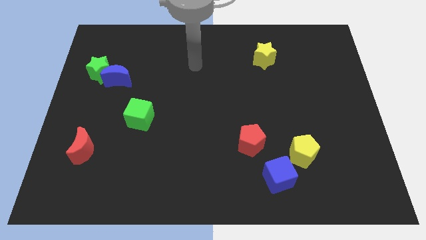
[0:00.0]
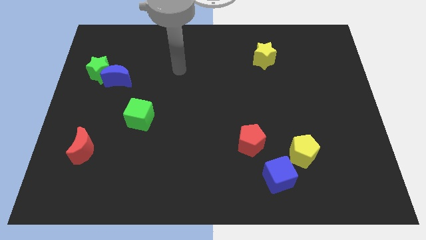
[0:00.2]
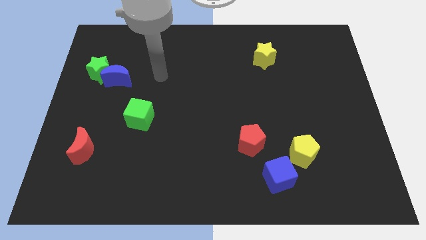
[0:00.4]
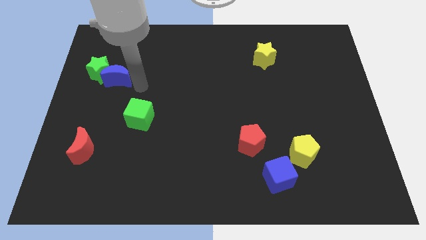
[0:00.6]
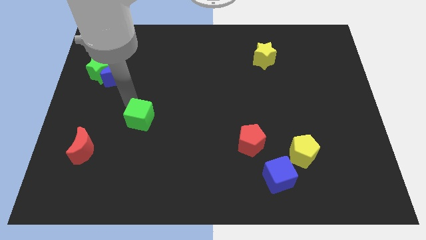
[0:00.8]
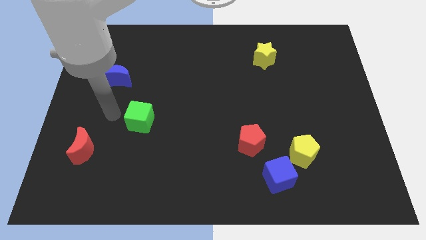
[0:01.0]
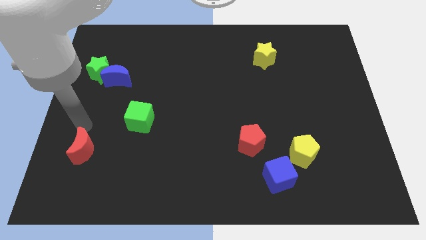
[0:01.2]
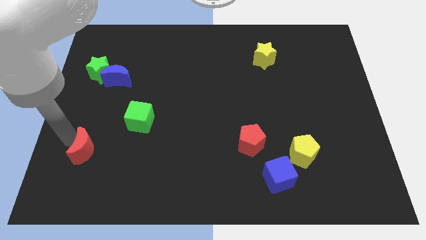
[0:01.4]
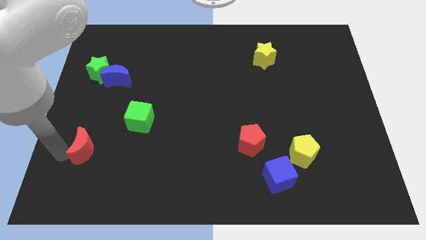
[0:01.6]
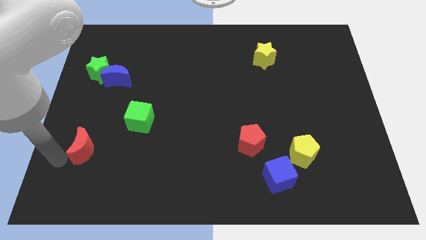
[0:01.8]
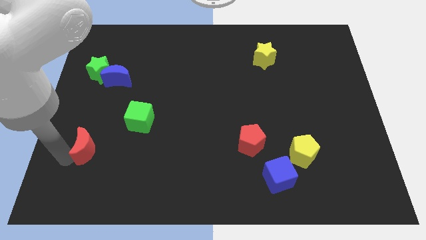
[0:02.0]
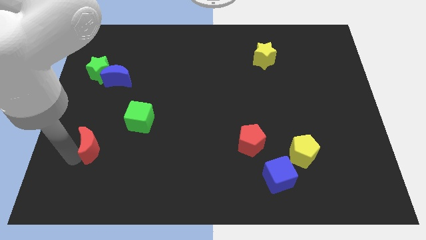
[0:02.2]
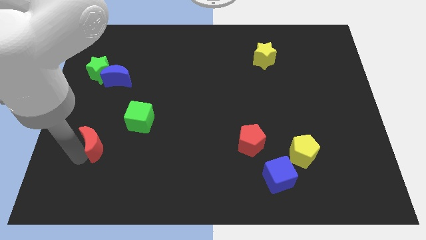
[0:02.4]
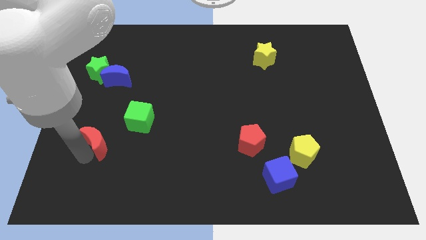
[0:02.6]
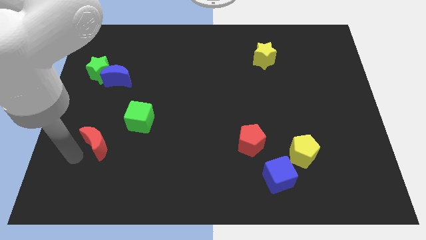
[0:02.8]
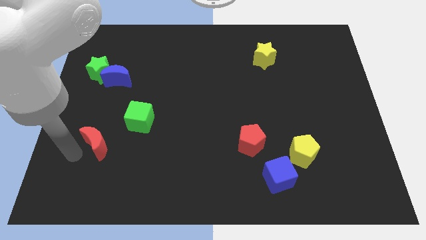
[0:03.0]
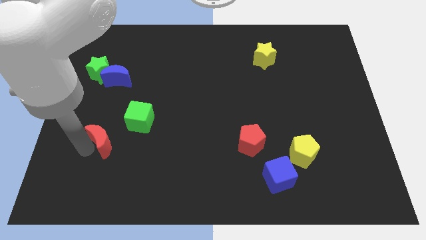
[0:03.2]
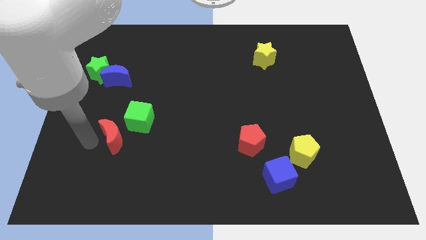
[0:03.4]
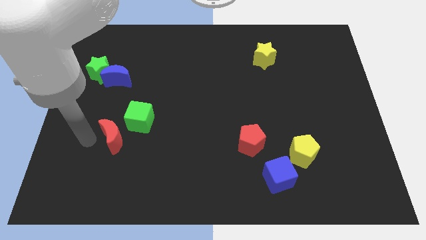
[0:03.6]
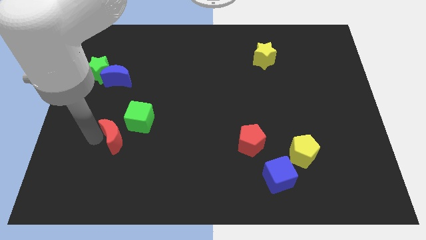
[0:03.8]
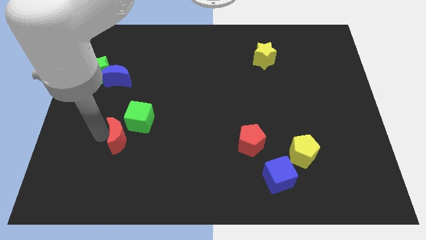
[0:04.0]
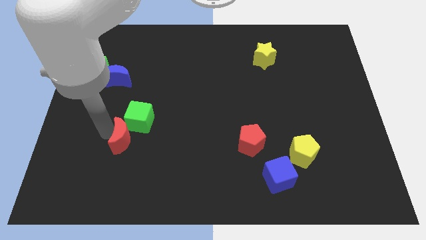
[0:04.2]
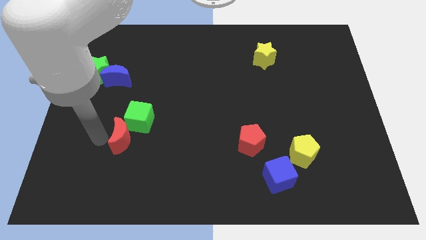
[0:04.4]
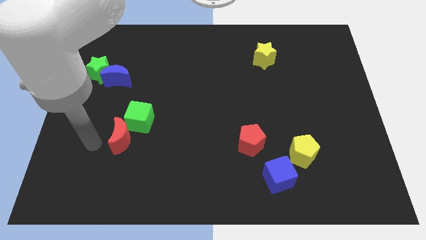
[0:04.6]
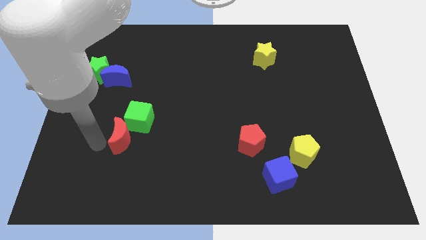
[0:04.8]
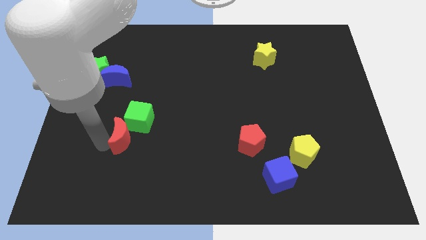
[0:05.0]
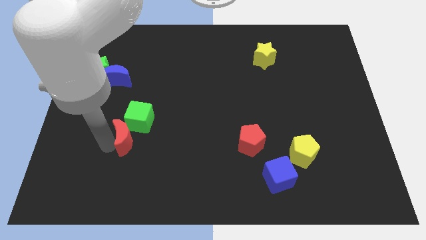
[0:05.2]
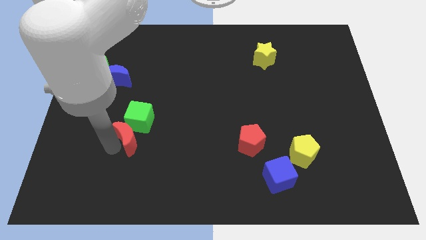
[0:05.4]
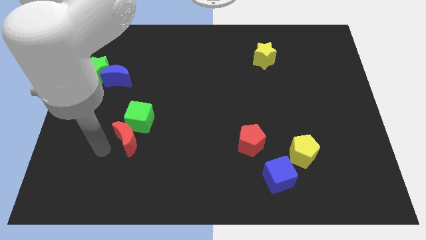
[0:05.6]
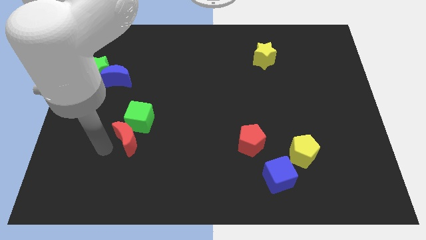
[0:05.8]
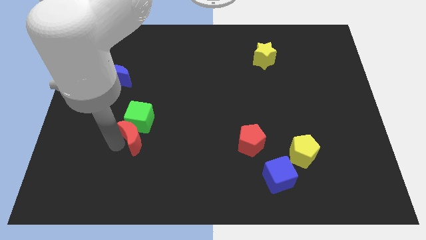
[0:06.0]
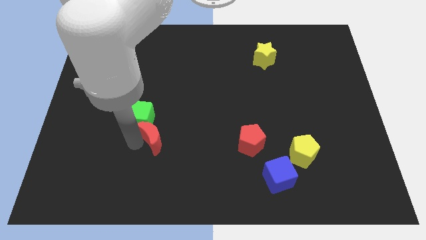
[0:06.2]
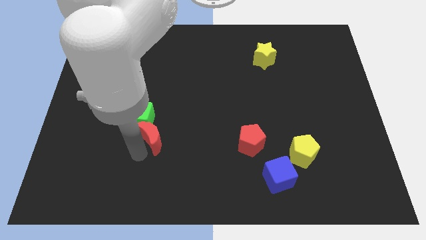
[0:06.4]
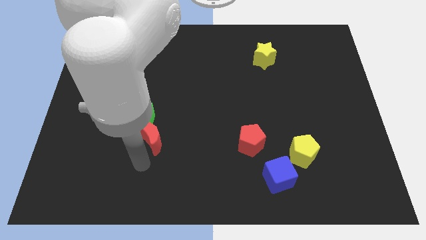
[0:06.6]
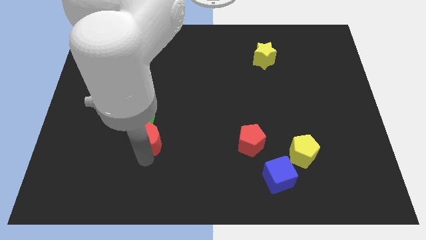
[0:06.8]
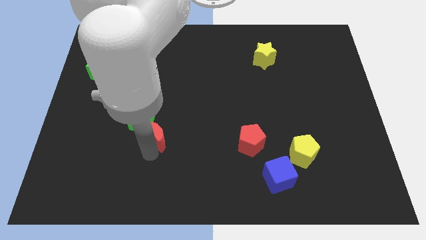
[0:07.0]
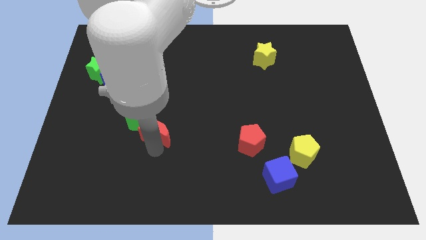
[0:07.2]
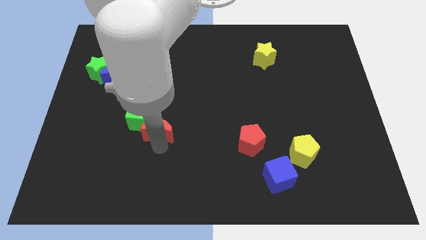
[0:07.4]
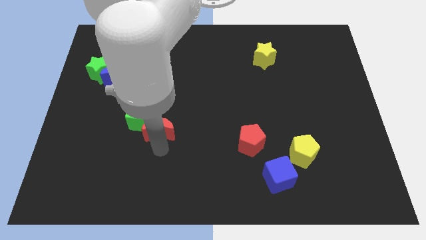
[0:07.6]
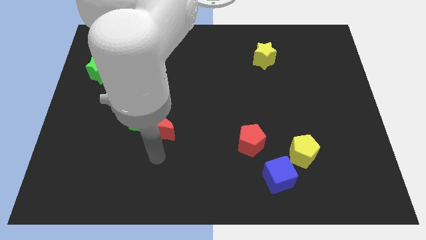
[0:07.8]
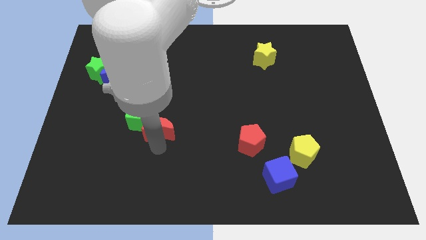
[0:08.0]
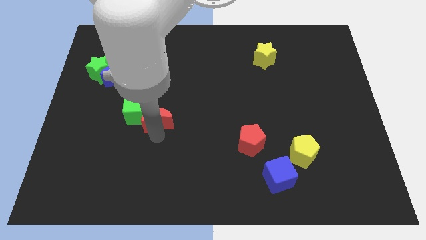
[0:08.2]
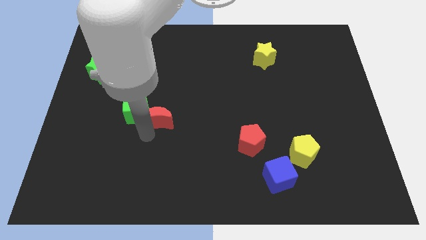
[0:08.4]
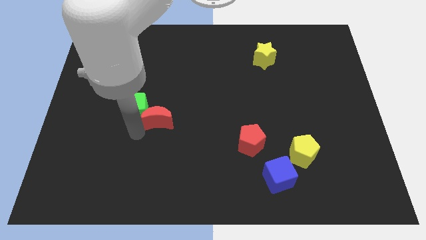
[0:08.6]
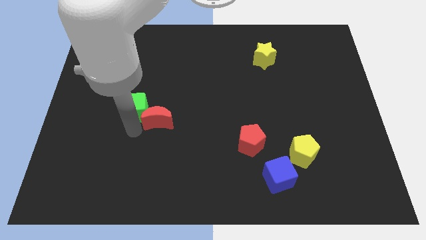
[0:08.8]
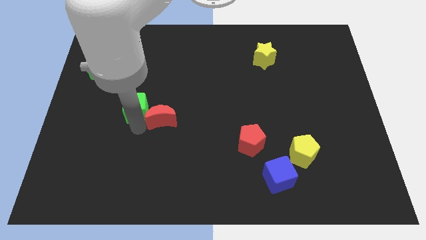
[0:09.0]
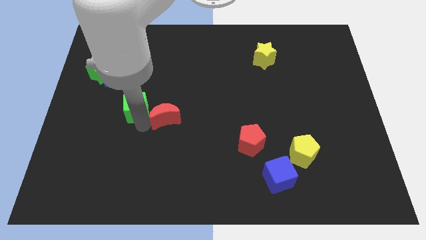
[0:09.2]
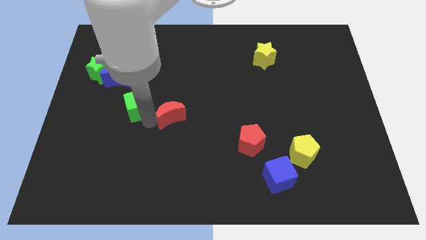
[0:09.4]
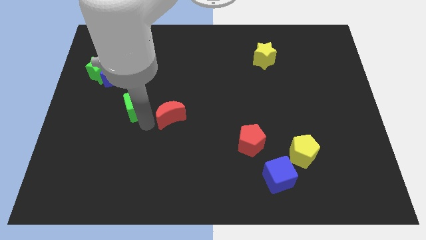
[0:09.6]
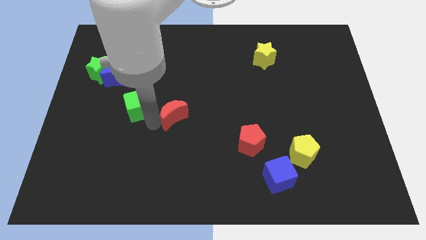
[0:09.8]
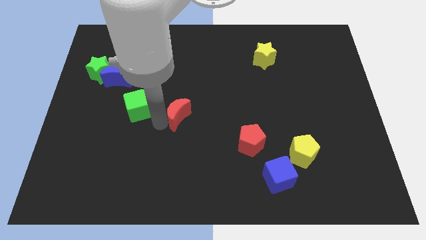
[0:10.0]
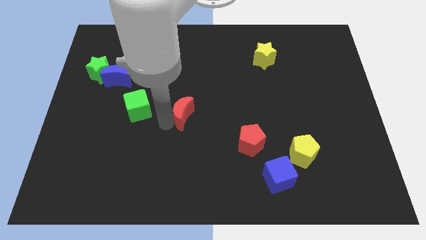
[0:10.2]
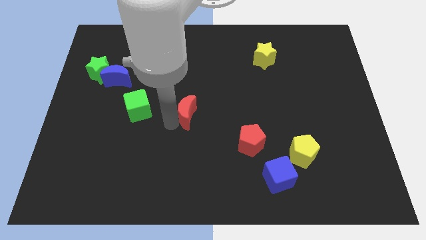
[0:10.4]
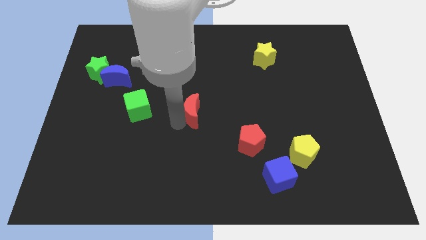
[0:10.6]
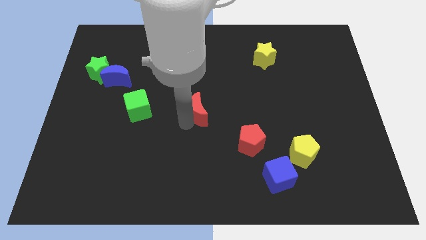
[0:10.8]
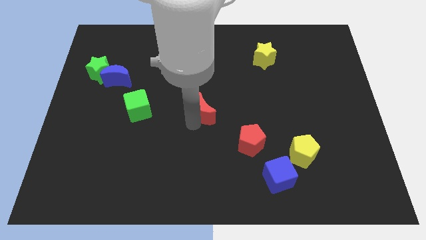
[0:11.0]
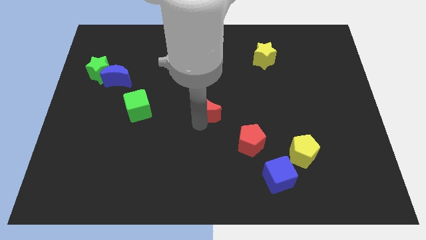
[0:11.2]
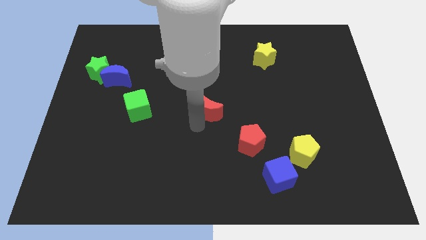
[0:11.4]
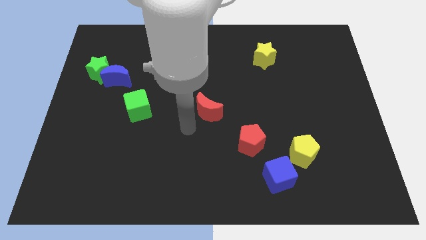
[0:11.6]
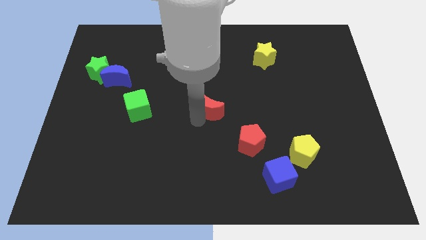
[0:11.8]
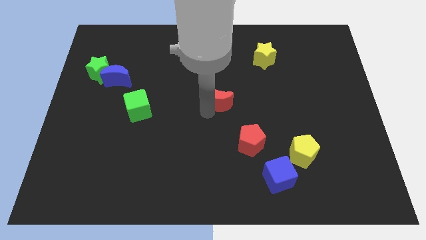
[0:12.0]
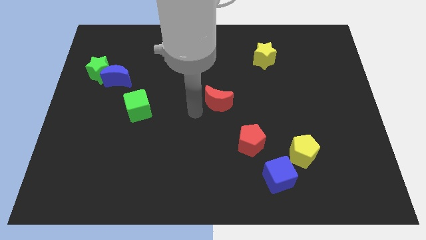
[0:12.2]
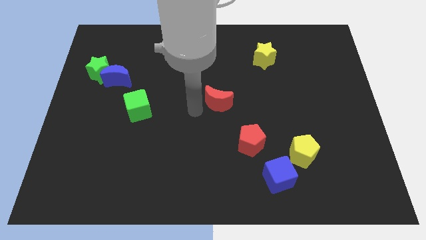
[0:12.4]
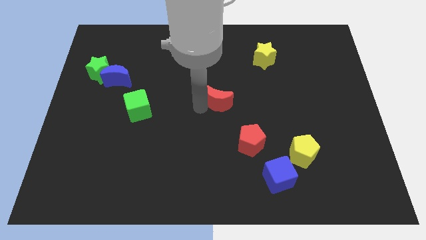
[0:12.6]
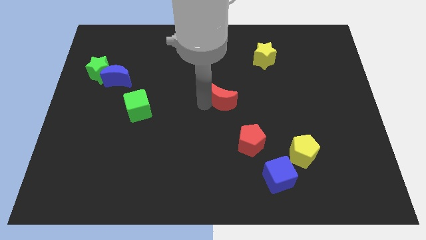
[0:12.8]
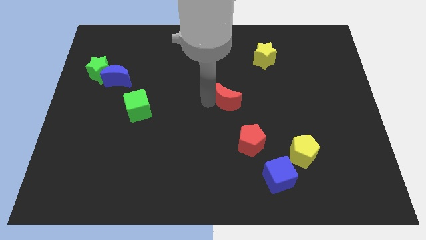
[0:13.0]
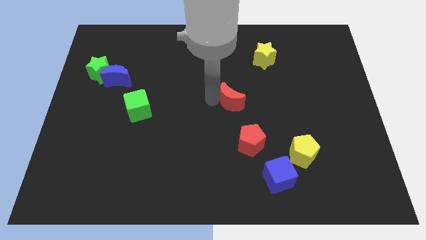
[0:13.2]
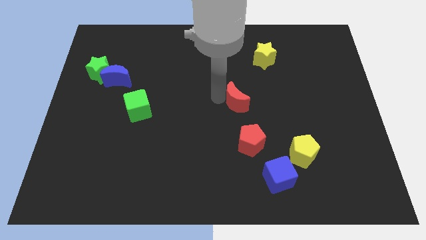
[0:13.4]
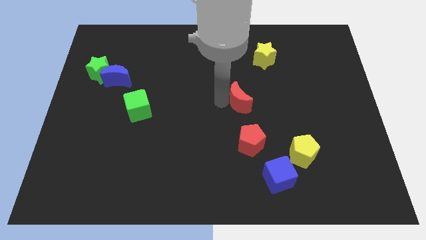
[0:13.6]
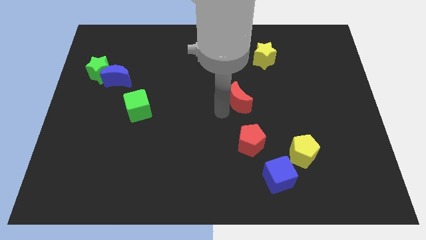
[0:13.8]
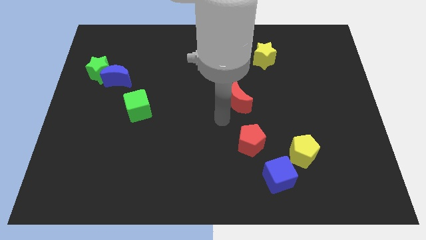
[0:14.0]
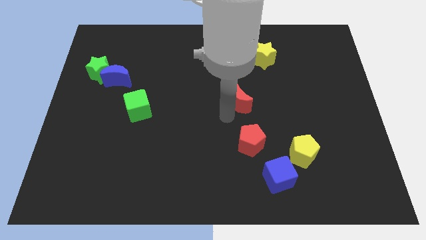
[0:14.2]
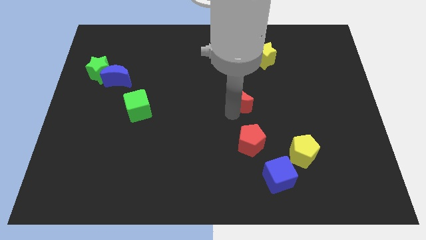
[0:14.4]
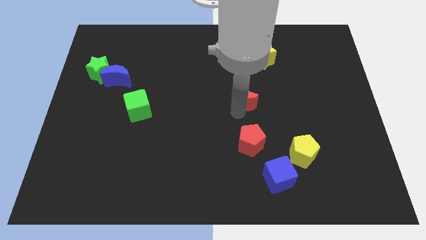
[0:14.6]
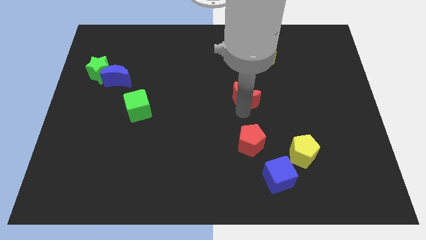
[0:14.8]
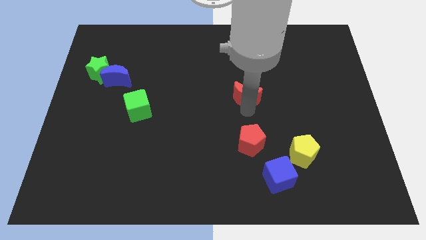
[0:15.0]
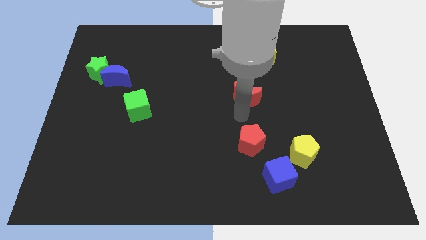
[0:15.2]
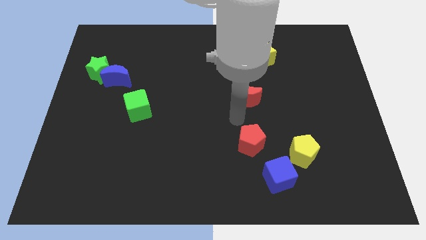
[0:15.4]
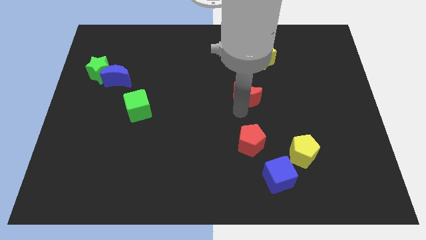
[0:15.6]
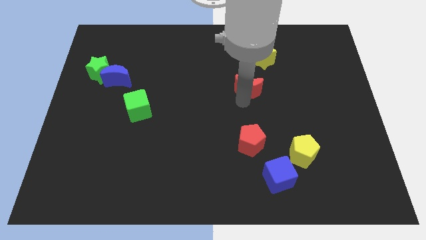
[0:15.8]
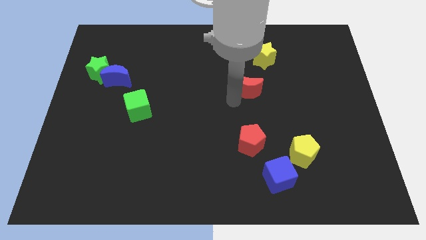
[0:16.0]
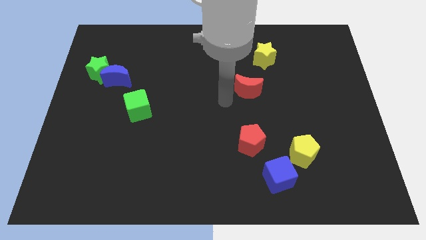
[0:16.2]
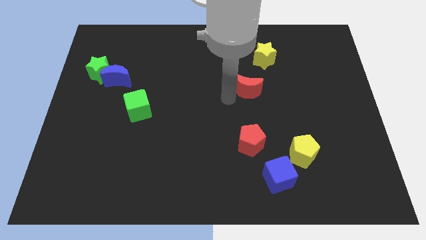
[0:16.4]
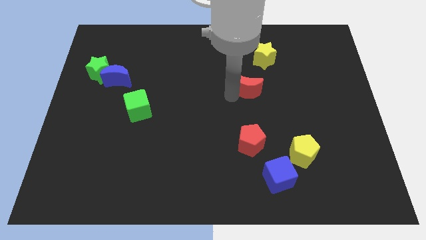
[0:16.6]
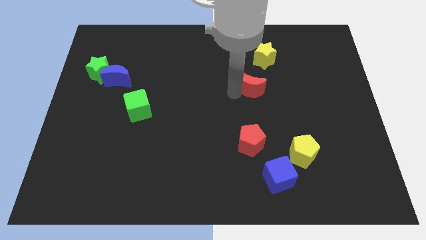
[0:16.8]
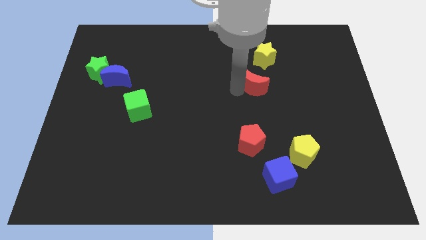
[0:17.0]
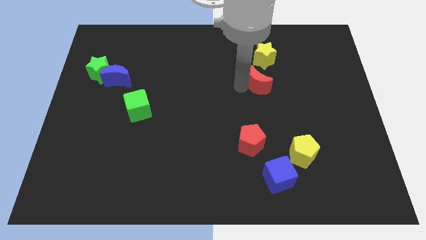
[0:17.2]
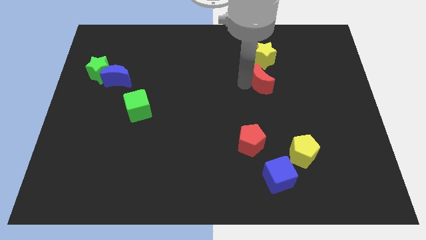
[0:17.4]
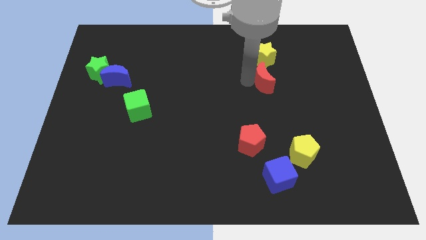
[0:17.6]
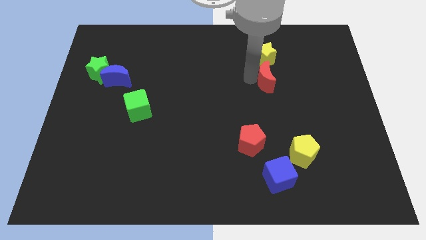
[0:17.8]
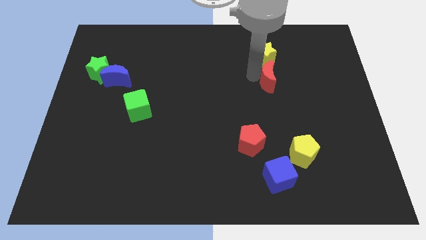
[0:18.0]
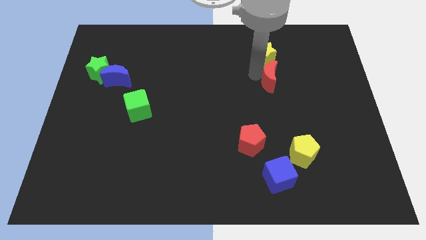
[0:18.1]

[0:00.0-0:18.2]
slide the red moon to the bottom right side of the yellow star

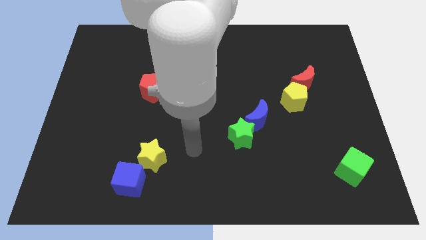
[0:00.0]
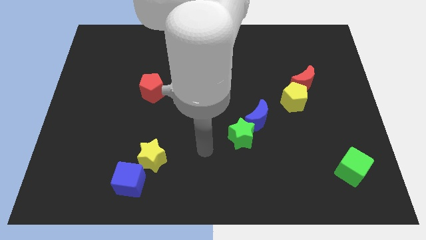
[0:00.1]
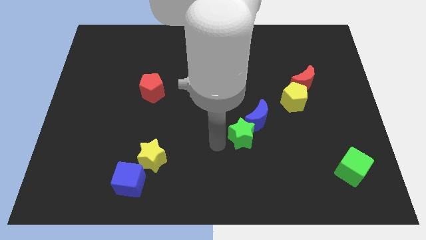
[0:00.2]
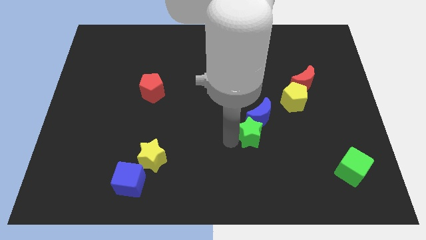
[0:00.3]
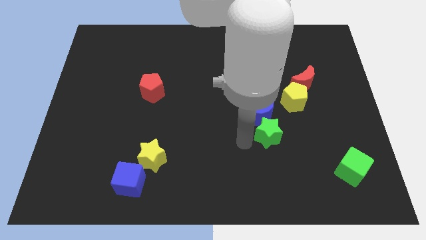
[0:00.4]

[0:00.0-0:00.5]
move the blue moon to the left of the yellow pentagon
